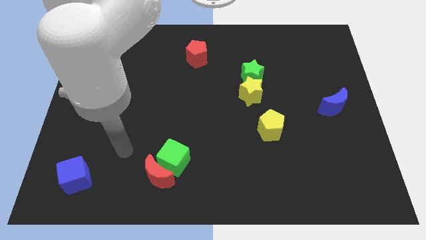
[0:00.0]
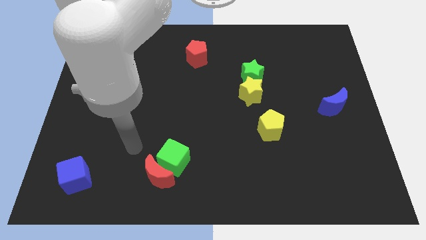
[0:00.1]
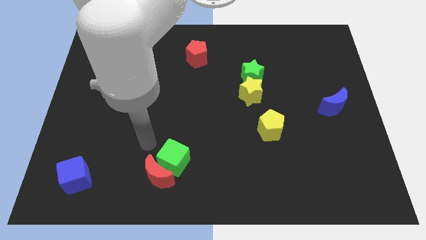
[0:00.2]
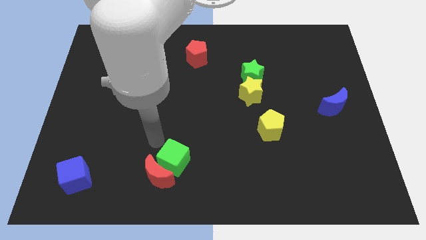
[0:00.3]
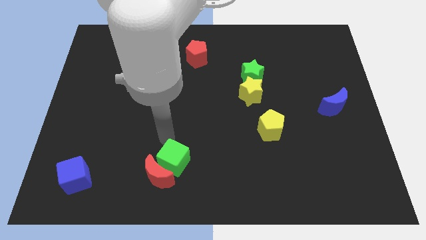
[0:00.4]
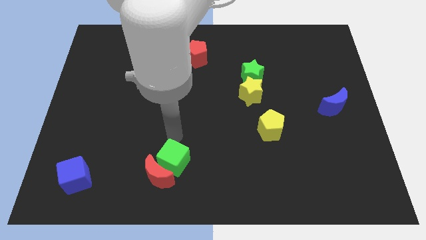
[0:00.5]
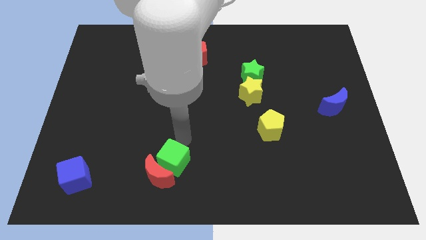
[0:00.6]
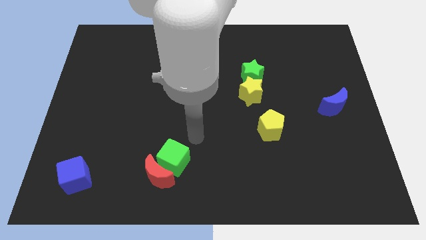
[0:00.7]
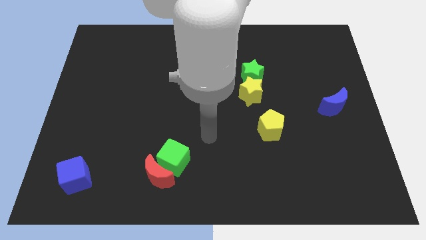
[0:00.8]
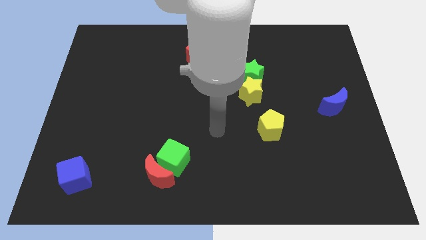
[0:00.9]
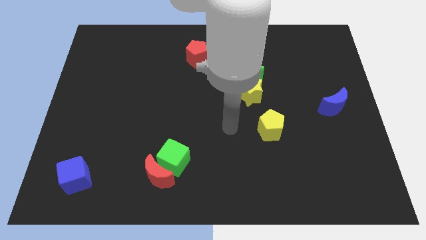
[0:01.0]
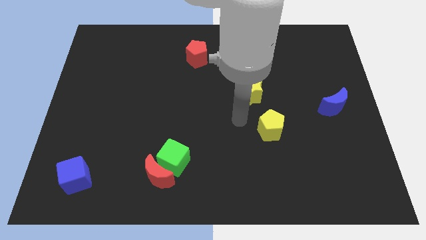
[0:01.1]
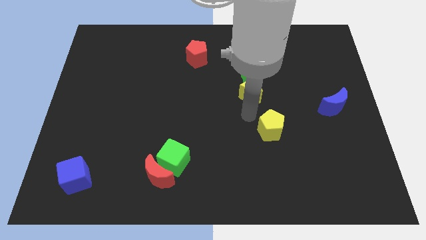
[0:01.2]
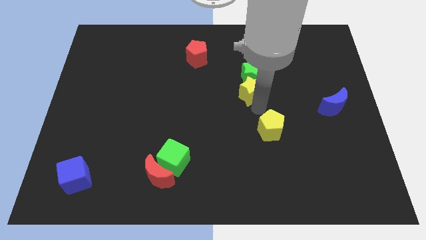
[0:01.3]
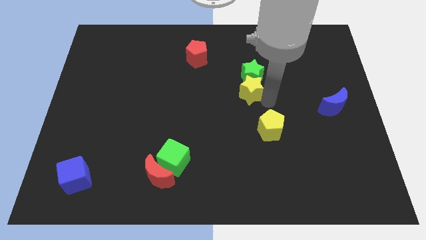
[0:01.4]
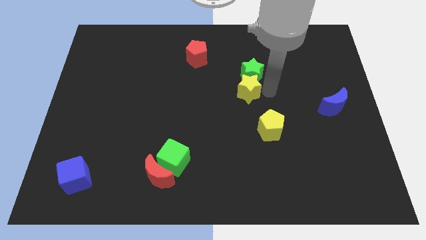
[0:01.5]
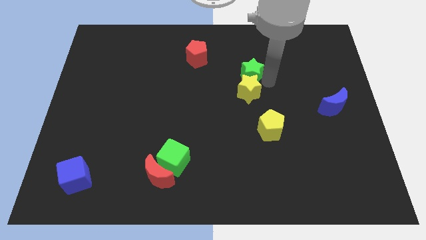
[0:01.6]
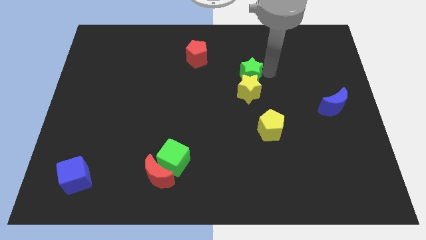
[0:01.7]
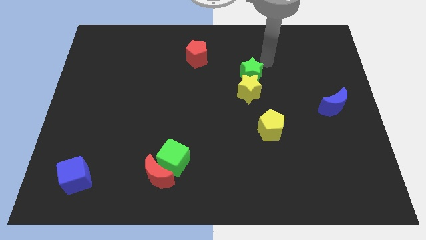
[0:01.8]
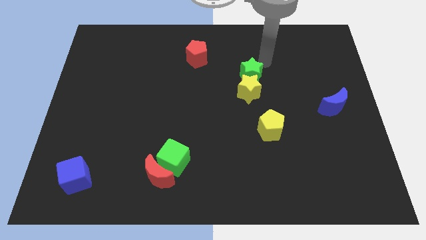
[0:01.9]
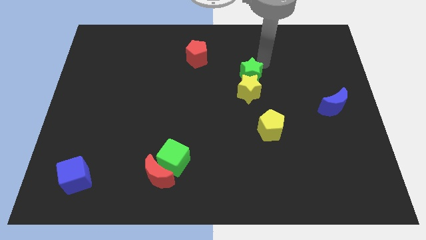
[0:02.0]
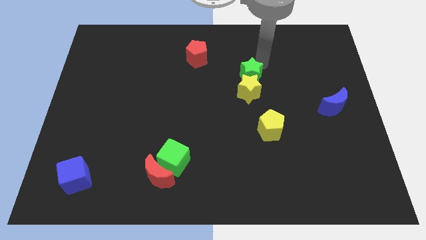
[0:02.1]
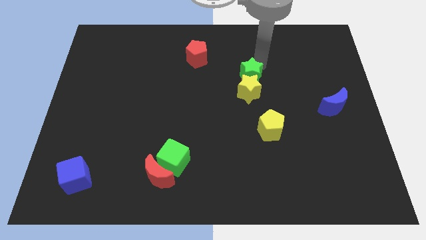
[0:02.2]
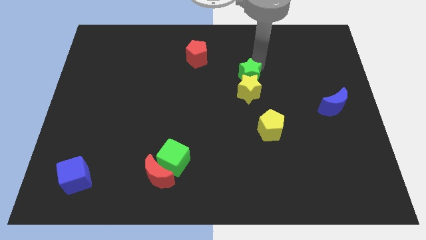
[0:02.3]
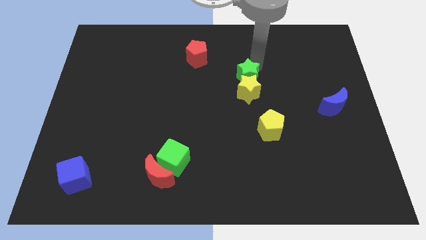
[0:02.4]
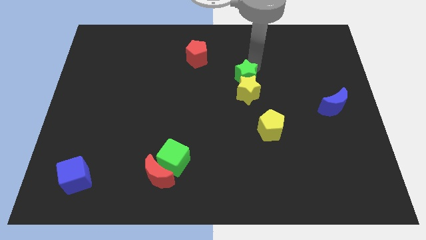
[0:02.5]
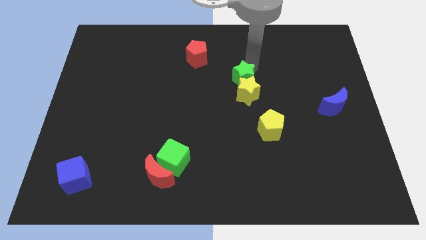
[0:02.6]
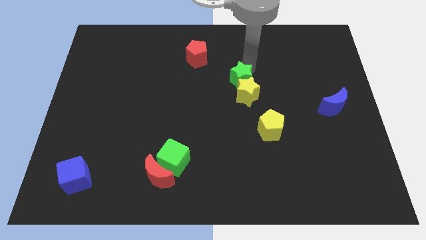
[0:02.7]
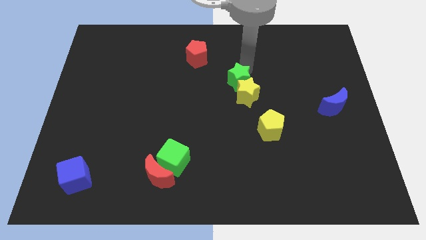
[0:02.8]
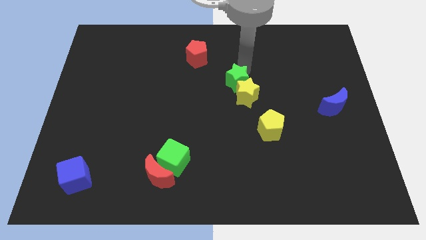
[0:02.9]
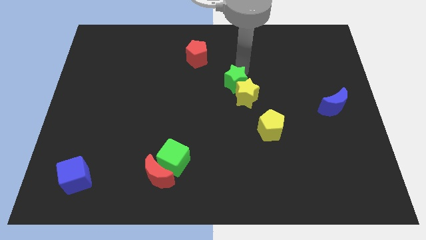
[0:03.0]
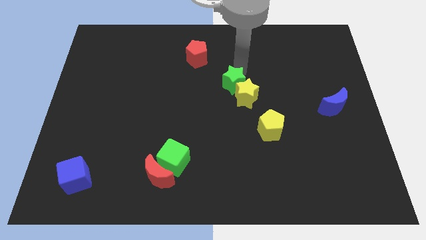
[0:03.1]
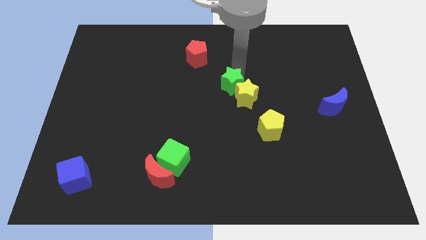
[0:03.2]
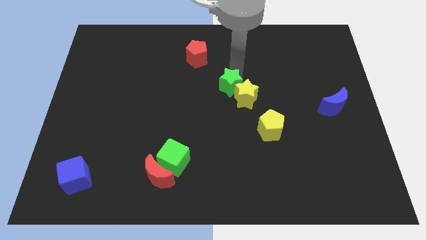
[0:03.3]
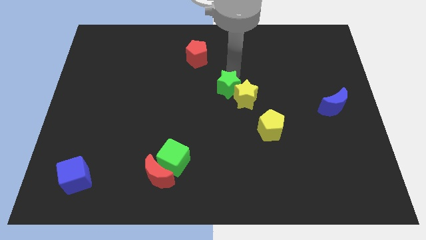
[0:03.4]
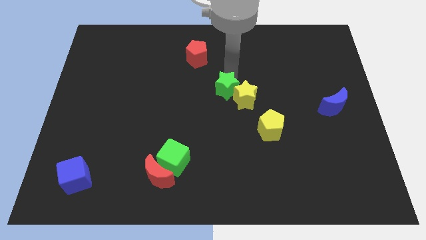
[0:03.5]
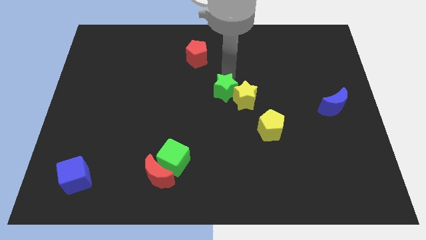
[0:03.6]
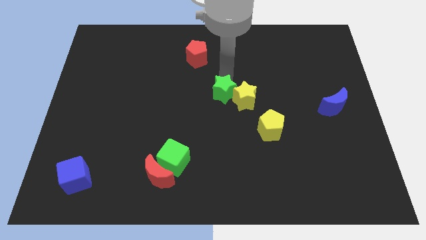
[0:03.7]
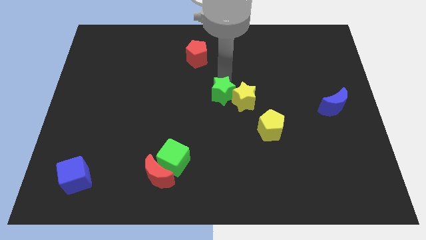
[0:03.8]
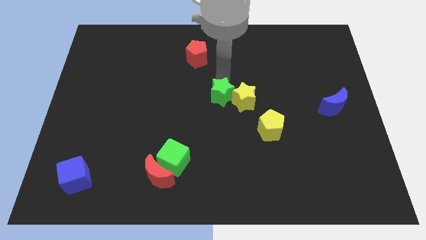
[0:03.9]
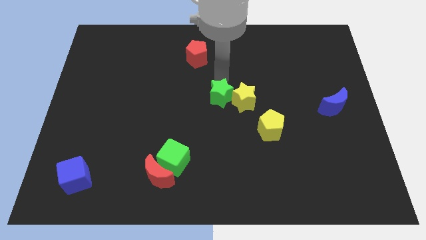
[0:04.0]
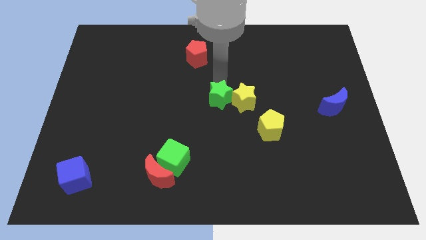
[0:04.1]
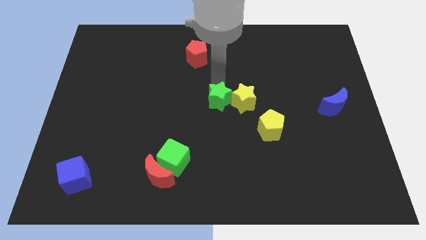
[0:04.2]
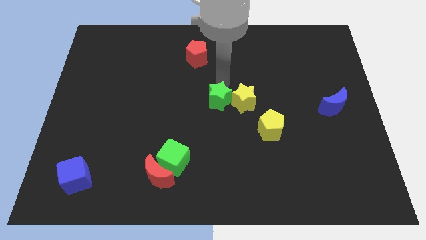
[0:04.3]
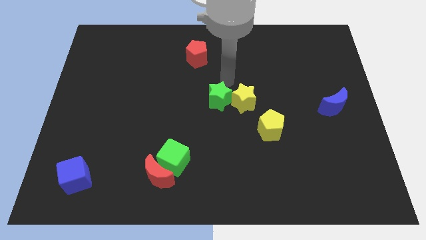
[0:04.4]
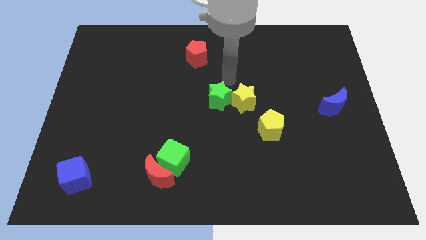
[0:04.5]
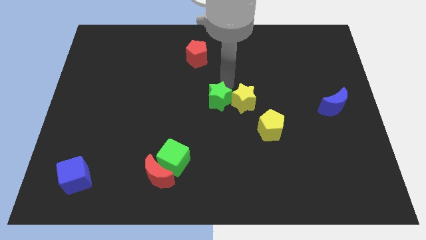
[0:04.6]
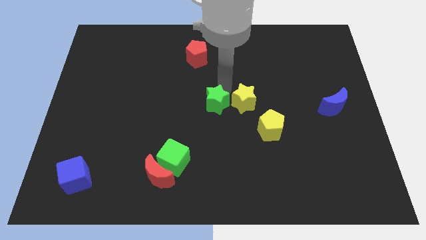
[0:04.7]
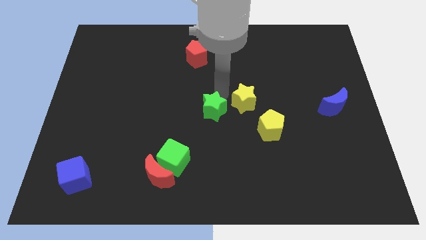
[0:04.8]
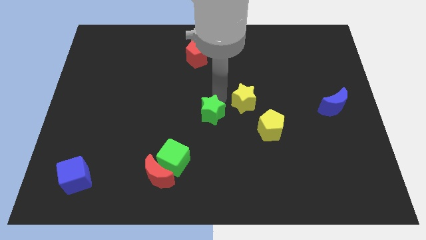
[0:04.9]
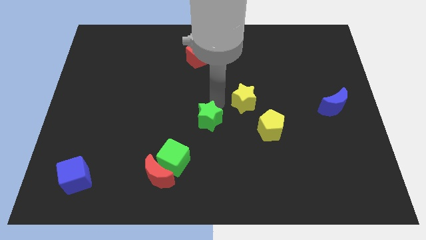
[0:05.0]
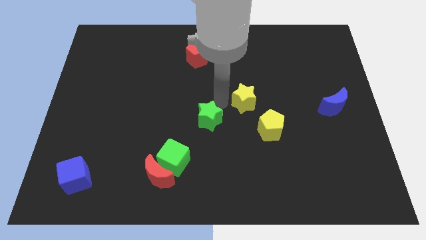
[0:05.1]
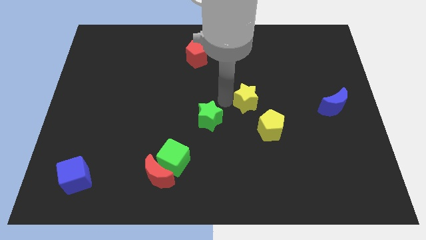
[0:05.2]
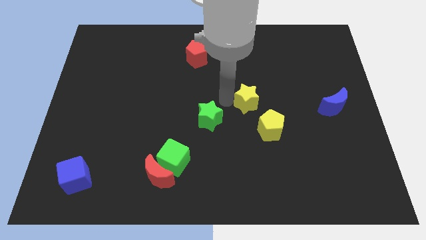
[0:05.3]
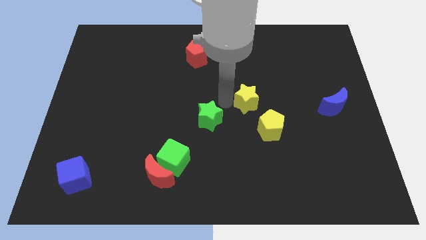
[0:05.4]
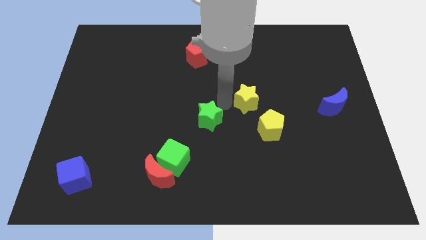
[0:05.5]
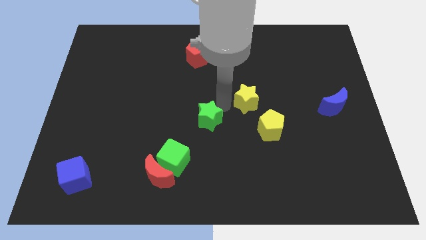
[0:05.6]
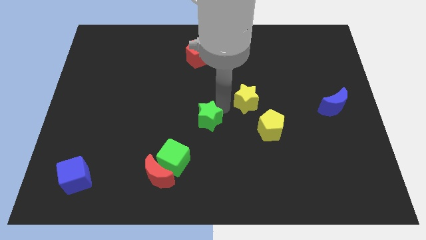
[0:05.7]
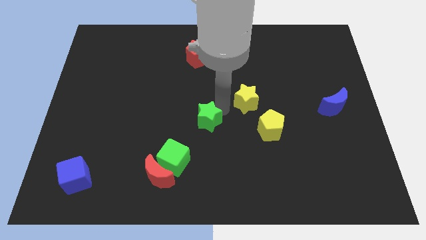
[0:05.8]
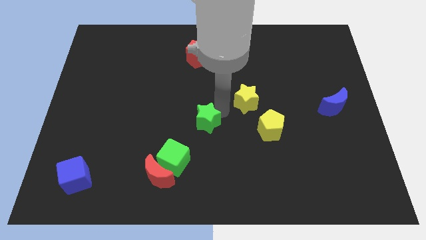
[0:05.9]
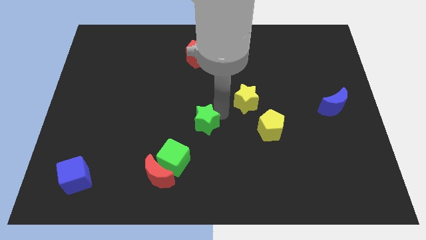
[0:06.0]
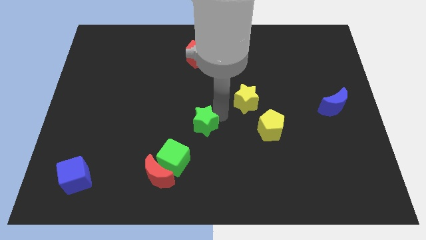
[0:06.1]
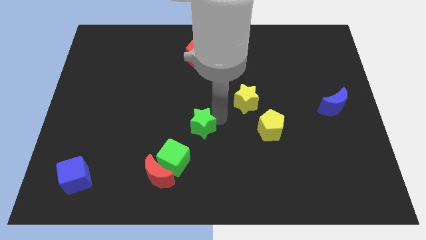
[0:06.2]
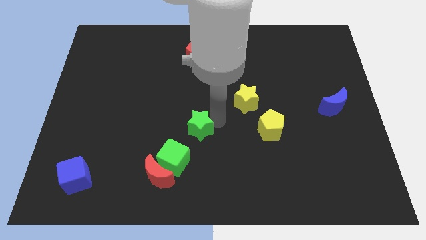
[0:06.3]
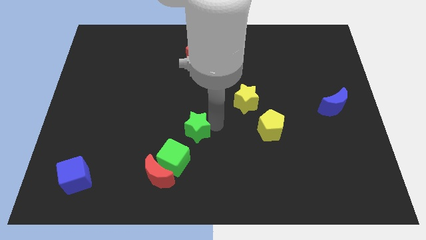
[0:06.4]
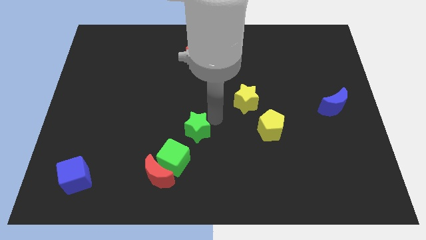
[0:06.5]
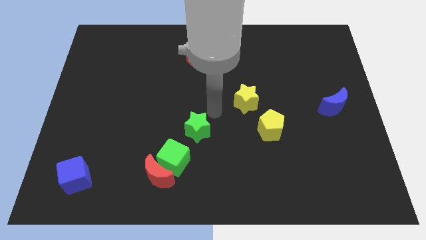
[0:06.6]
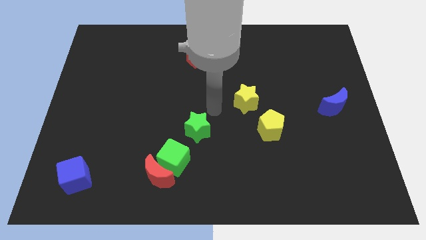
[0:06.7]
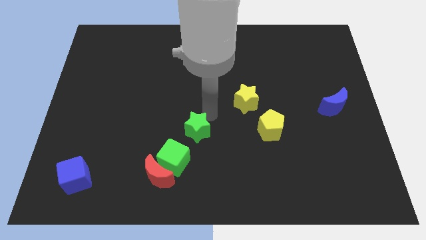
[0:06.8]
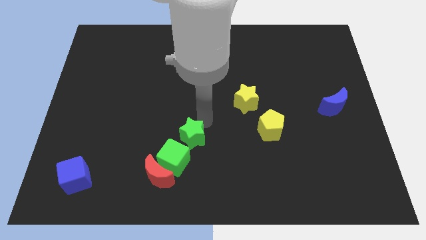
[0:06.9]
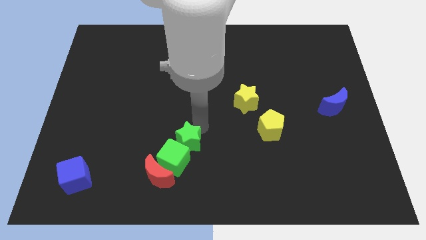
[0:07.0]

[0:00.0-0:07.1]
push the green star towards the green cube
